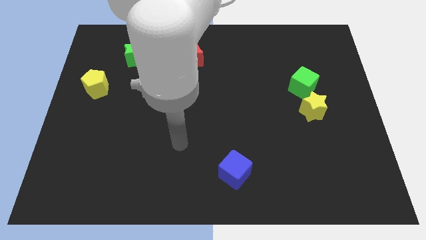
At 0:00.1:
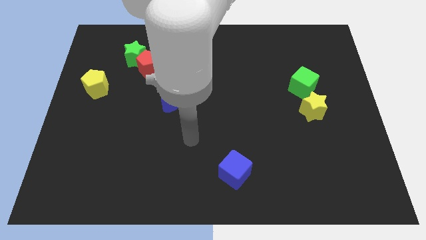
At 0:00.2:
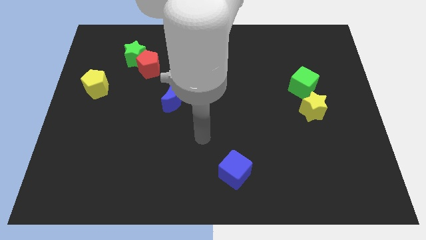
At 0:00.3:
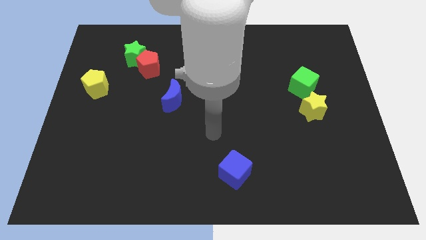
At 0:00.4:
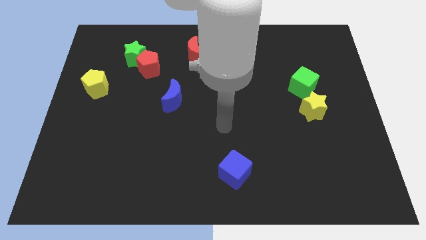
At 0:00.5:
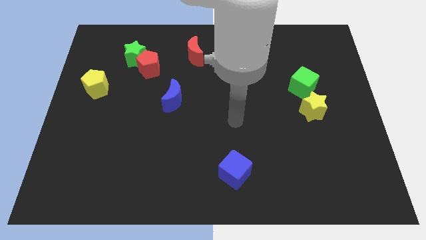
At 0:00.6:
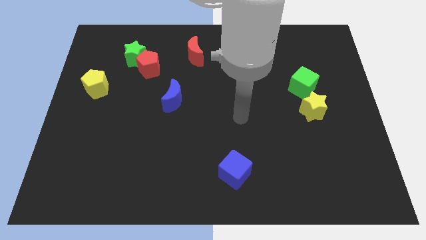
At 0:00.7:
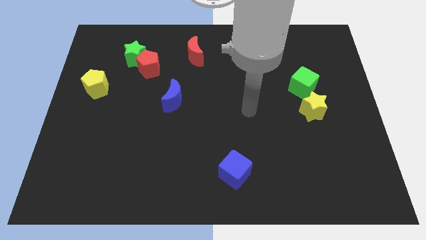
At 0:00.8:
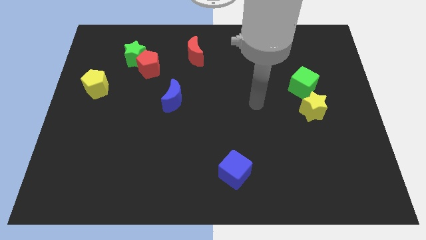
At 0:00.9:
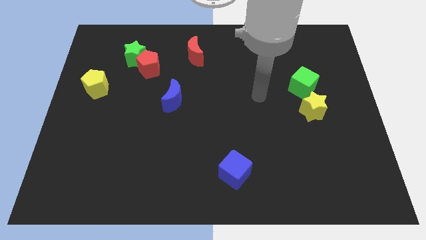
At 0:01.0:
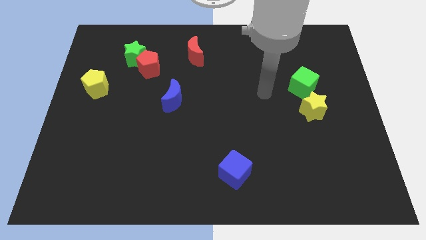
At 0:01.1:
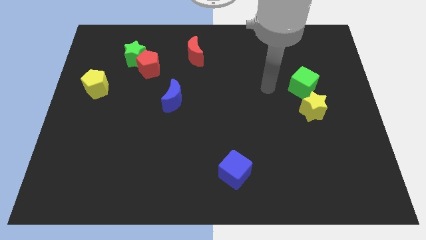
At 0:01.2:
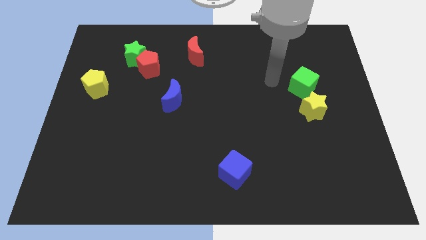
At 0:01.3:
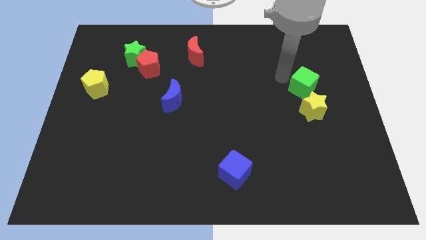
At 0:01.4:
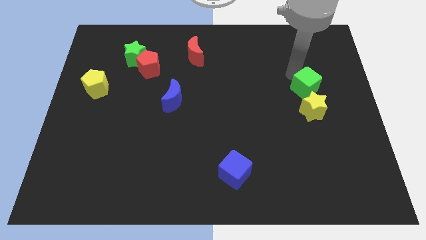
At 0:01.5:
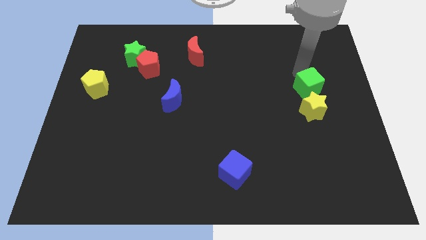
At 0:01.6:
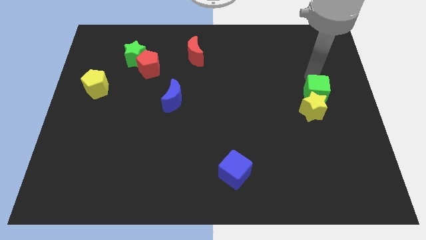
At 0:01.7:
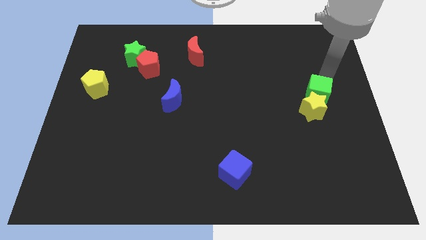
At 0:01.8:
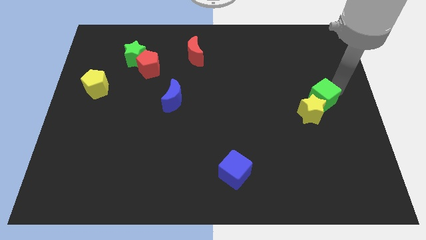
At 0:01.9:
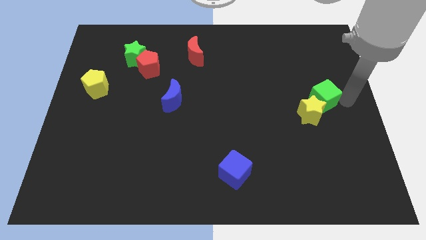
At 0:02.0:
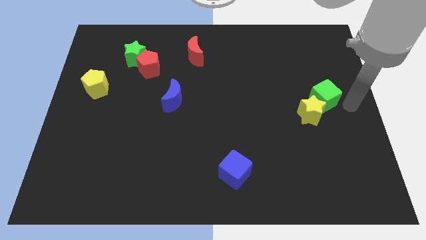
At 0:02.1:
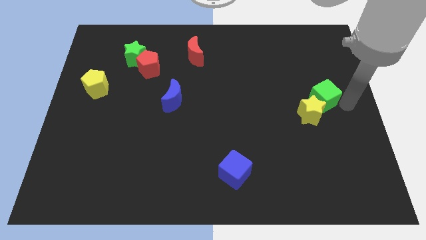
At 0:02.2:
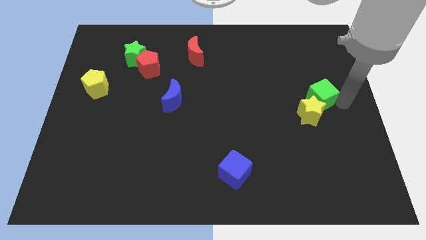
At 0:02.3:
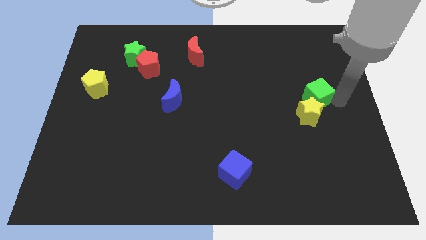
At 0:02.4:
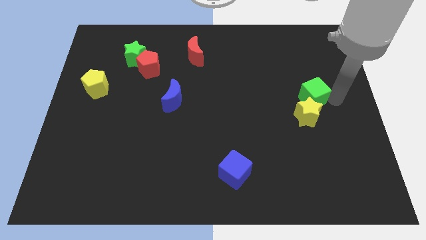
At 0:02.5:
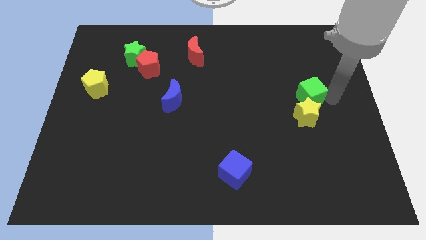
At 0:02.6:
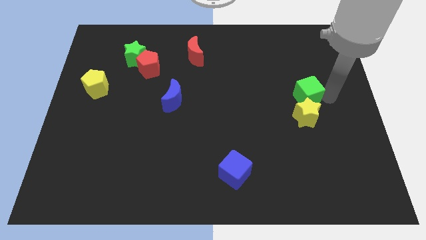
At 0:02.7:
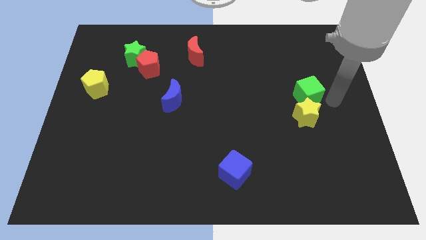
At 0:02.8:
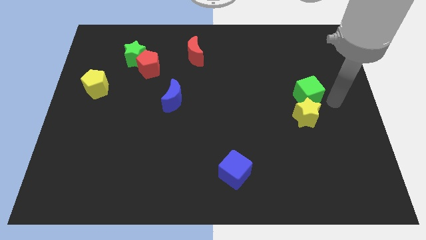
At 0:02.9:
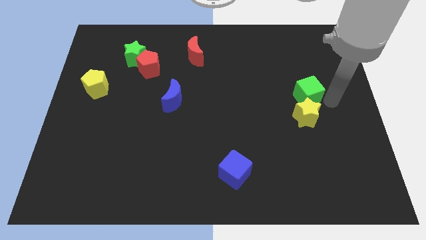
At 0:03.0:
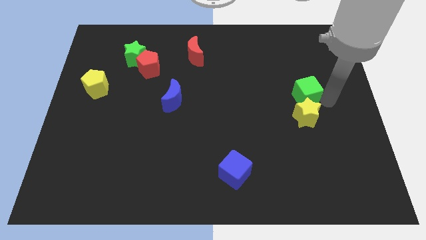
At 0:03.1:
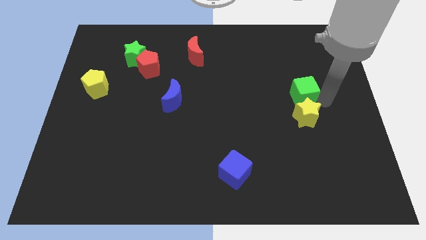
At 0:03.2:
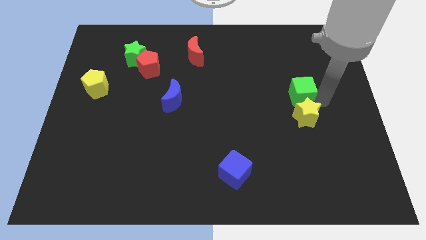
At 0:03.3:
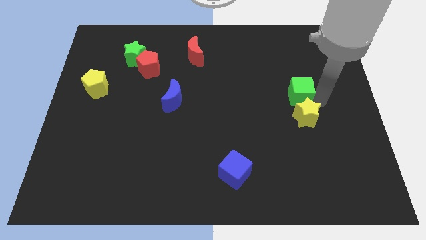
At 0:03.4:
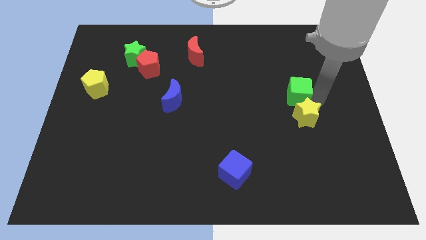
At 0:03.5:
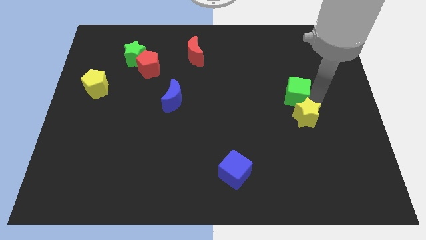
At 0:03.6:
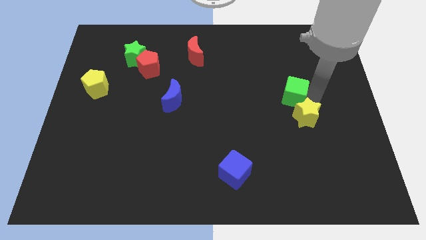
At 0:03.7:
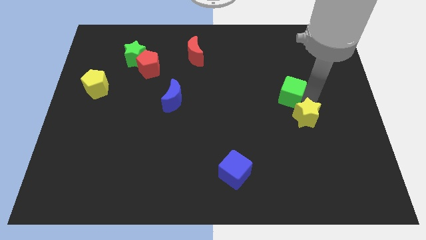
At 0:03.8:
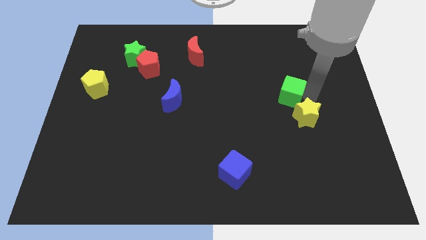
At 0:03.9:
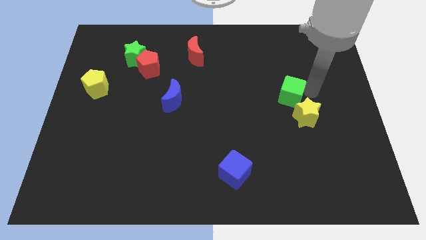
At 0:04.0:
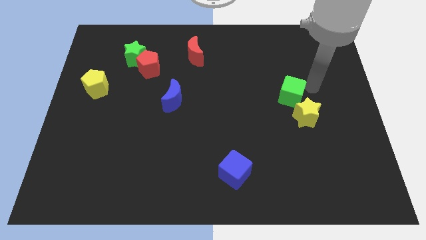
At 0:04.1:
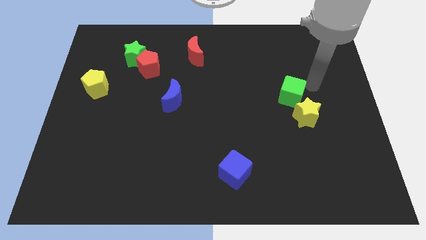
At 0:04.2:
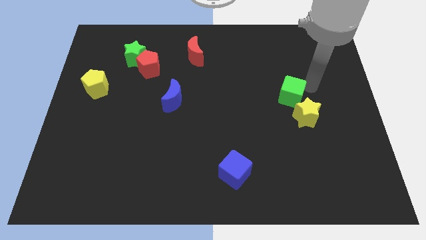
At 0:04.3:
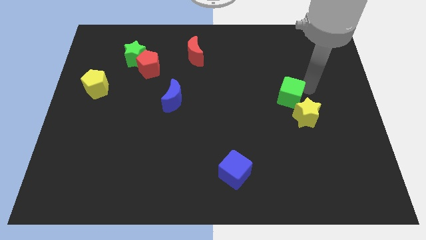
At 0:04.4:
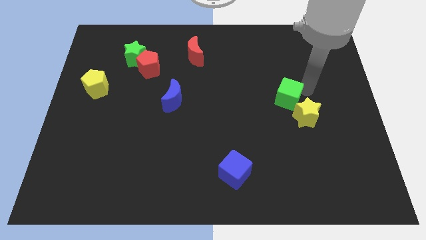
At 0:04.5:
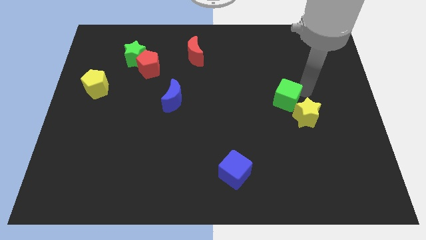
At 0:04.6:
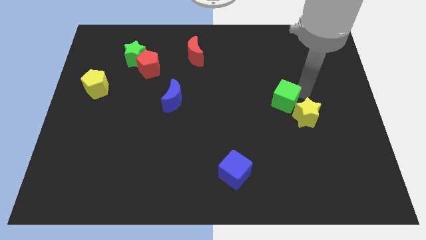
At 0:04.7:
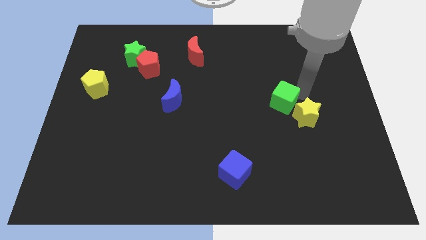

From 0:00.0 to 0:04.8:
slightly slide the green cube down and to the left diagonally

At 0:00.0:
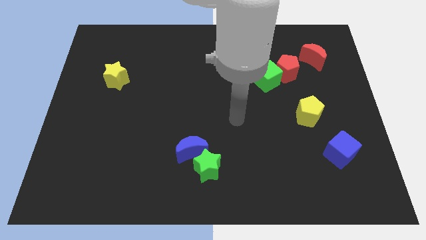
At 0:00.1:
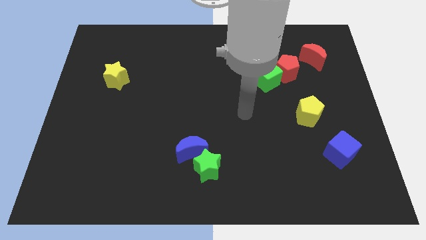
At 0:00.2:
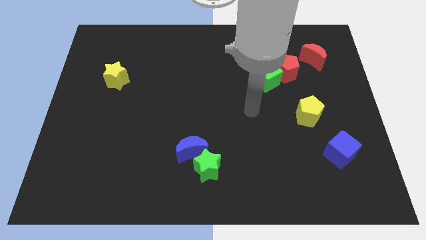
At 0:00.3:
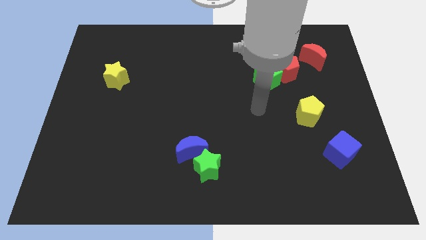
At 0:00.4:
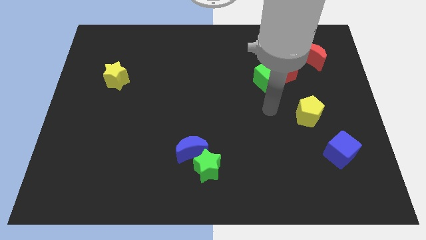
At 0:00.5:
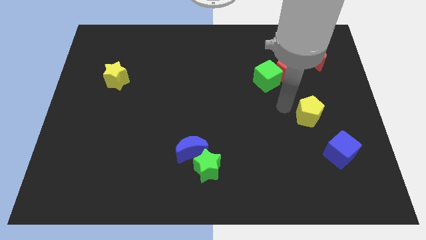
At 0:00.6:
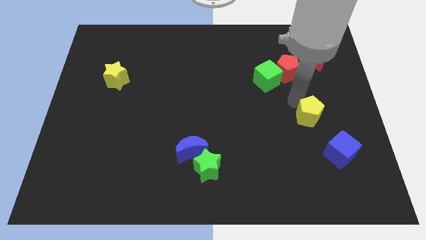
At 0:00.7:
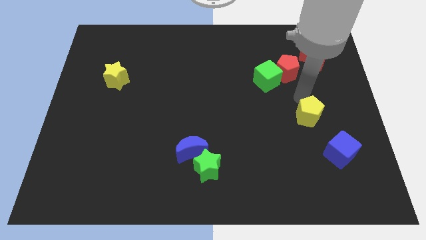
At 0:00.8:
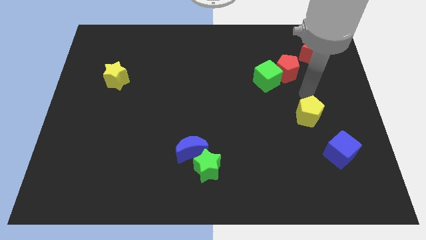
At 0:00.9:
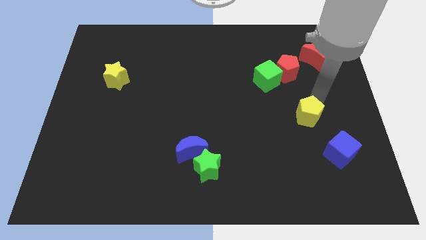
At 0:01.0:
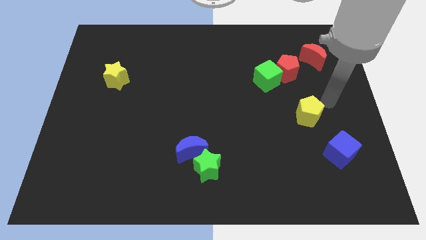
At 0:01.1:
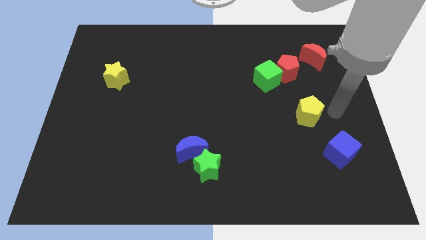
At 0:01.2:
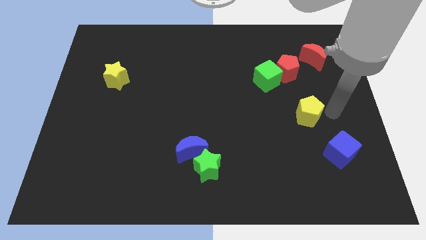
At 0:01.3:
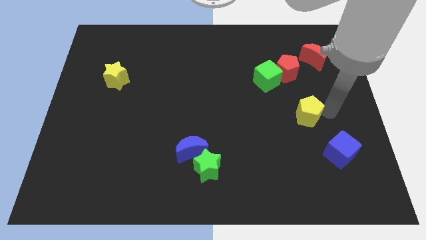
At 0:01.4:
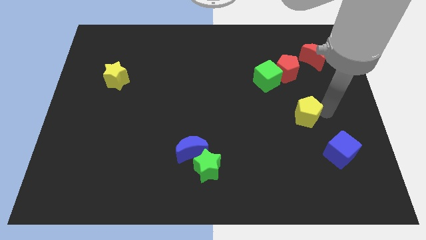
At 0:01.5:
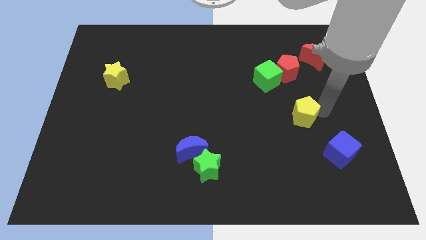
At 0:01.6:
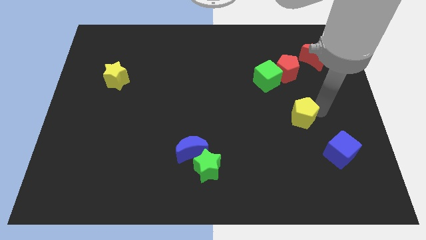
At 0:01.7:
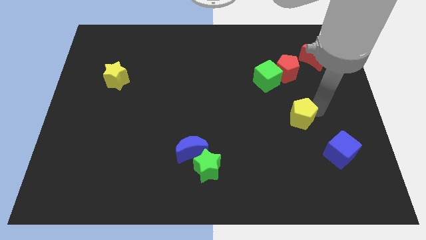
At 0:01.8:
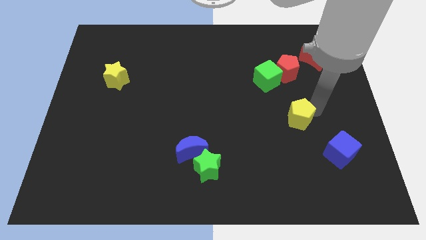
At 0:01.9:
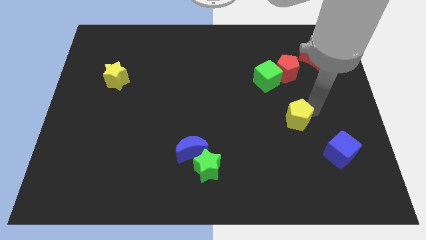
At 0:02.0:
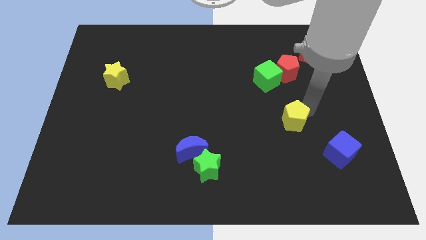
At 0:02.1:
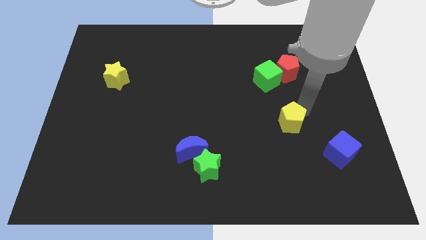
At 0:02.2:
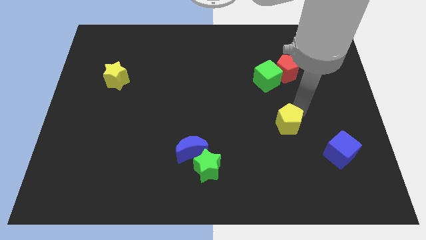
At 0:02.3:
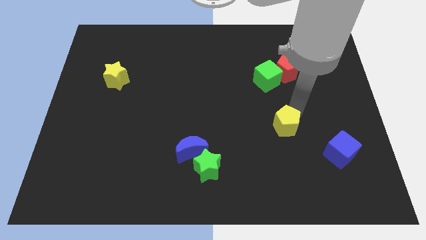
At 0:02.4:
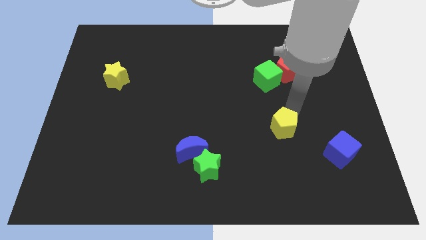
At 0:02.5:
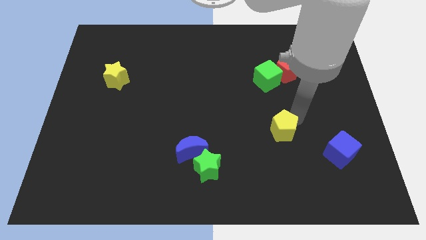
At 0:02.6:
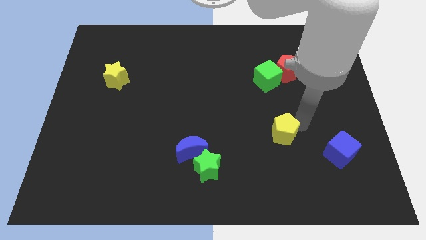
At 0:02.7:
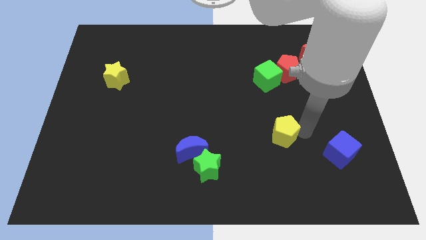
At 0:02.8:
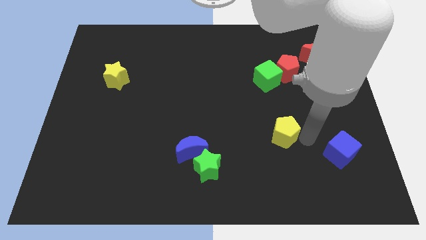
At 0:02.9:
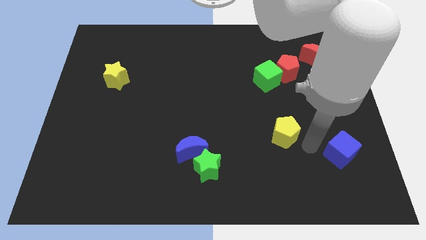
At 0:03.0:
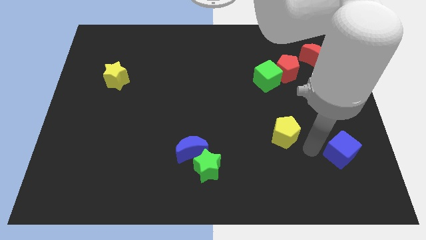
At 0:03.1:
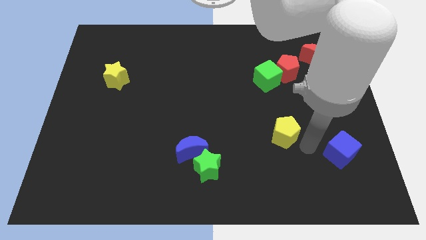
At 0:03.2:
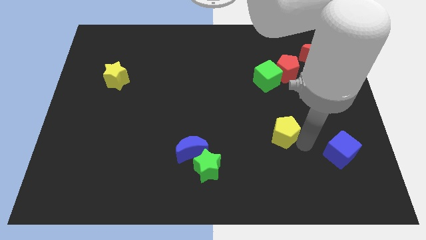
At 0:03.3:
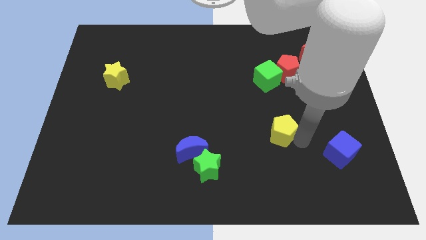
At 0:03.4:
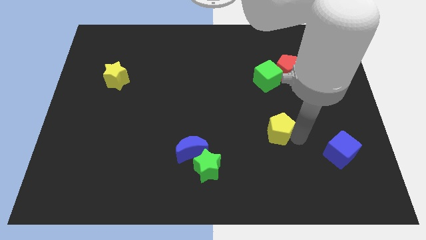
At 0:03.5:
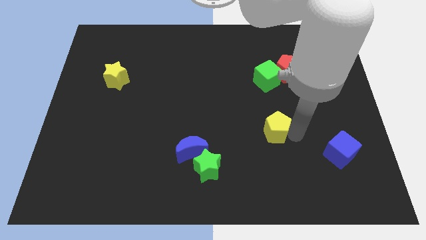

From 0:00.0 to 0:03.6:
slide the yellow pentagon a little left
